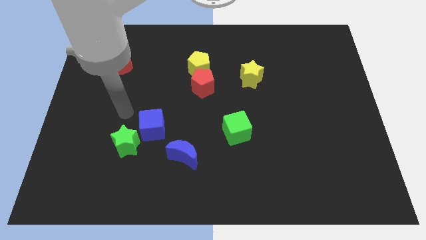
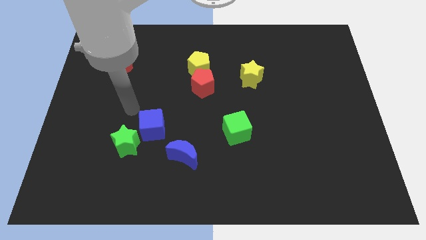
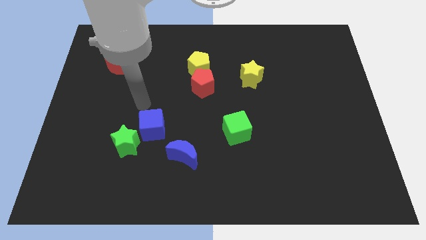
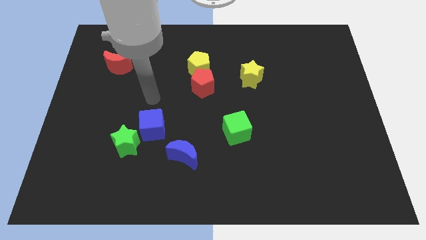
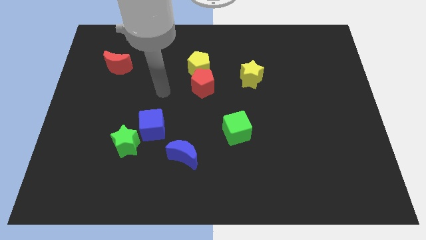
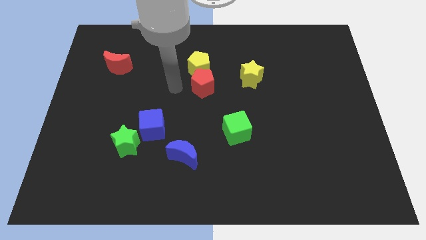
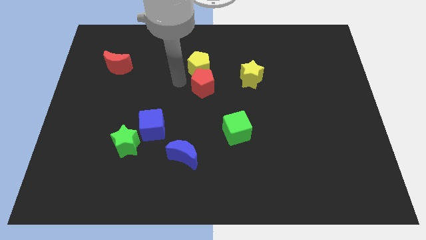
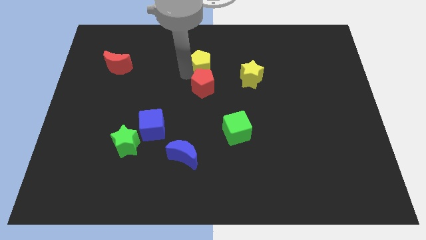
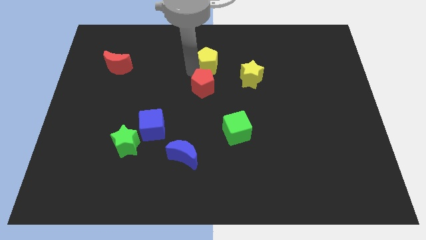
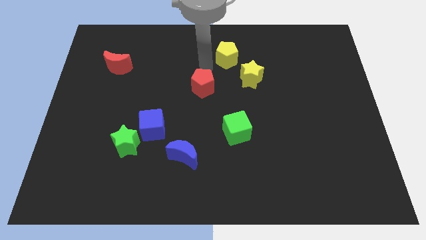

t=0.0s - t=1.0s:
move the red pentagon away from the yellow pentagon

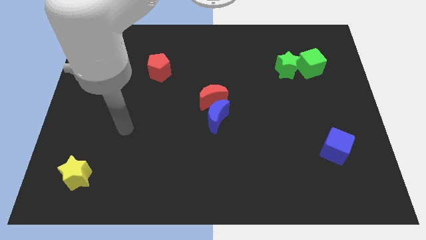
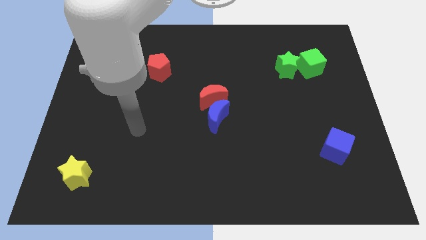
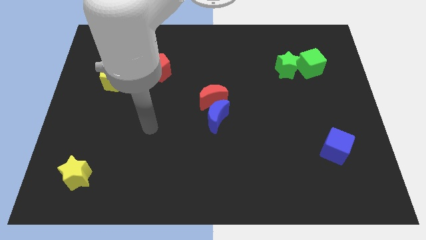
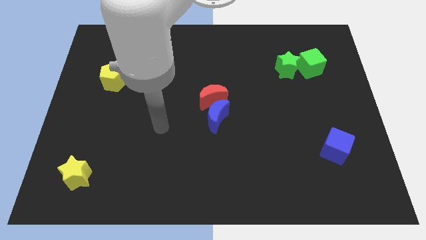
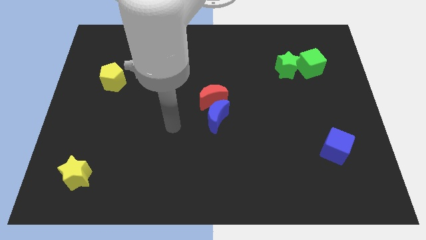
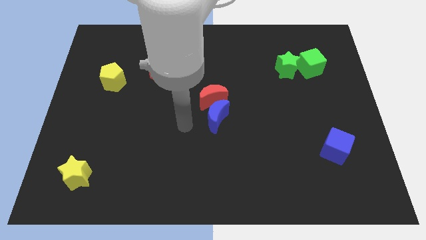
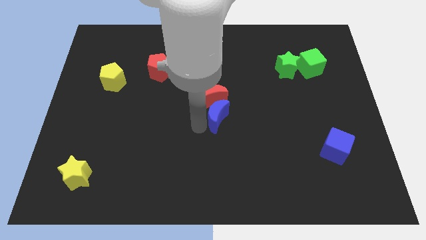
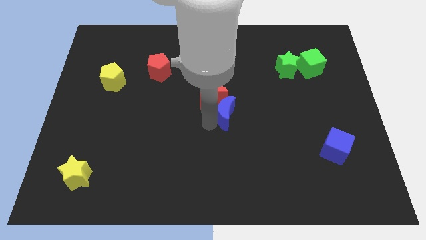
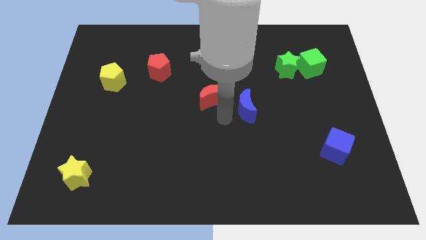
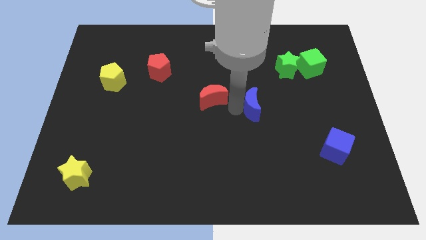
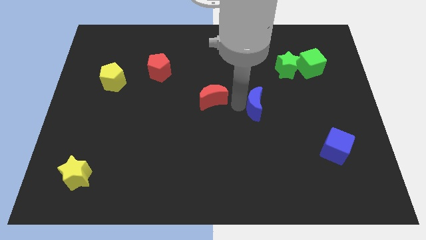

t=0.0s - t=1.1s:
move the red moon away from the blue moon

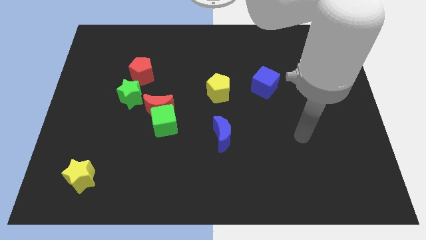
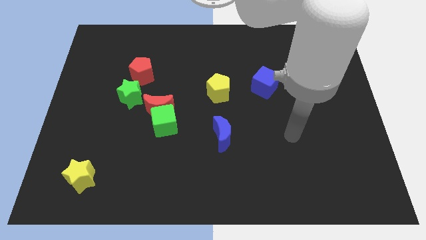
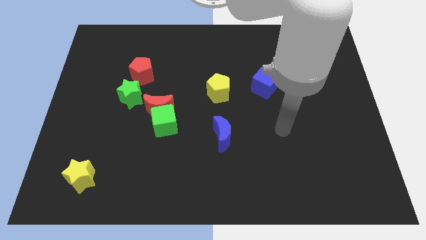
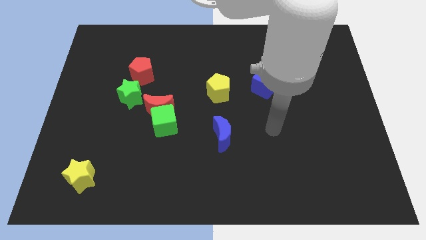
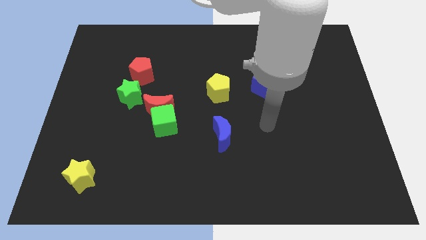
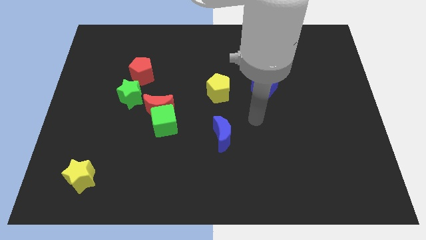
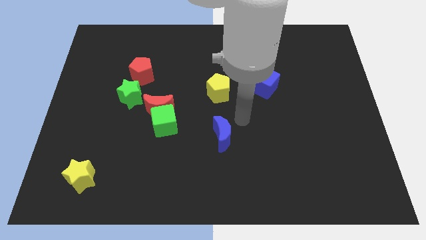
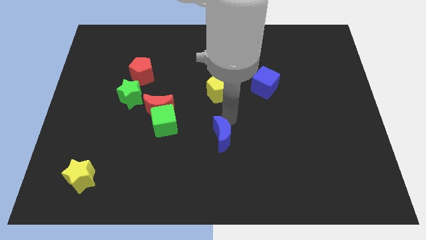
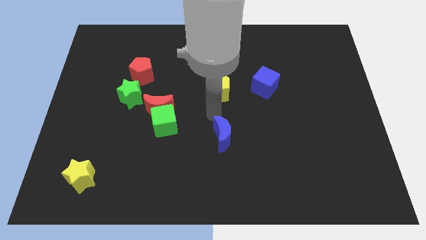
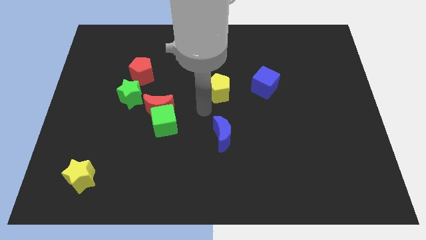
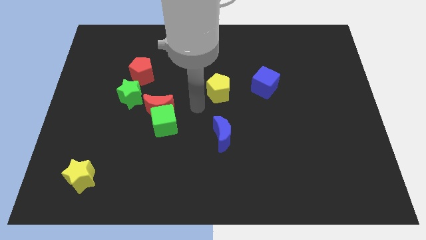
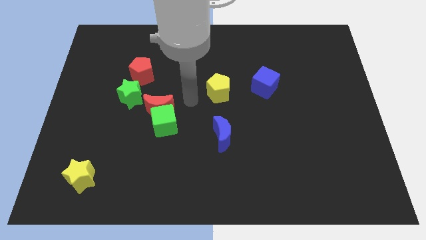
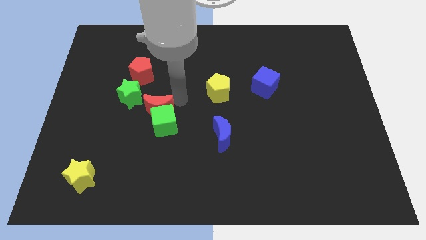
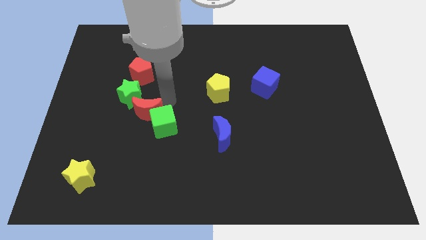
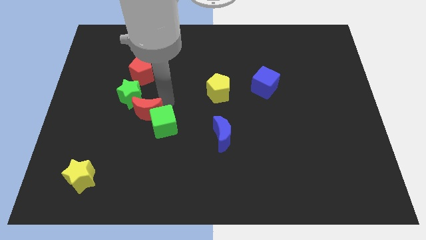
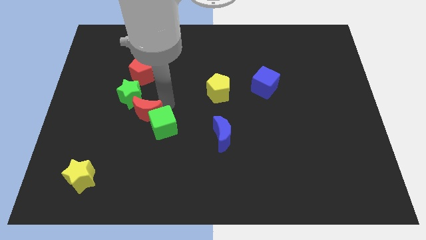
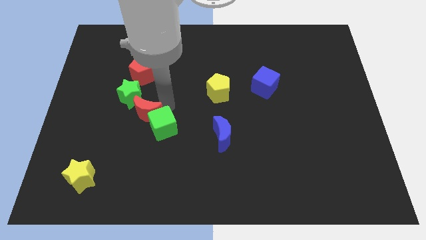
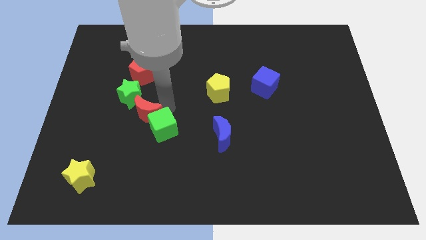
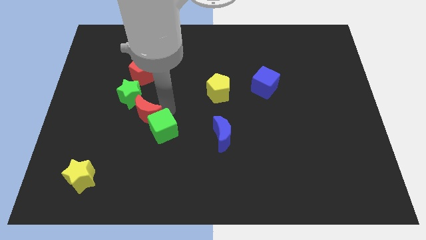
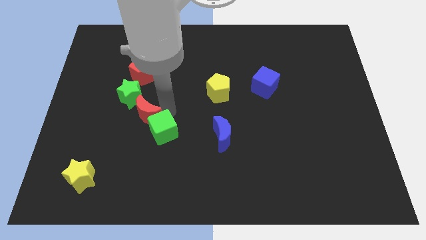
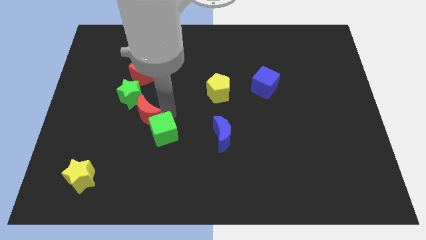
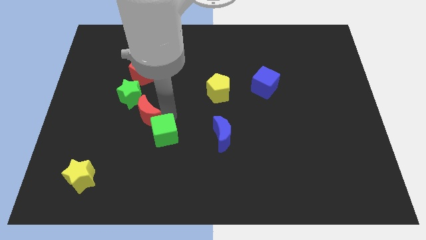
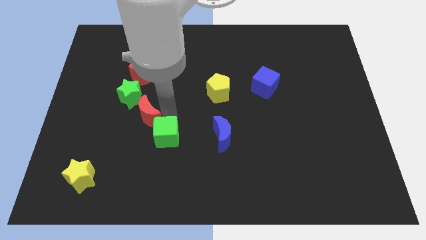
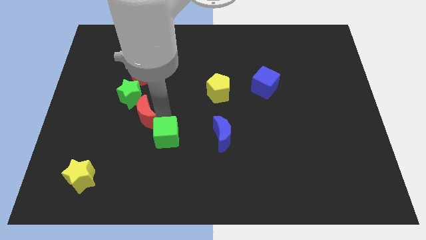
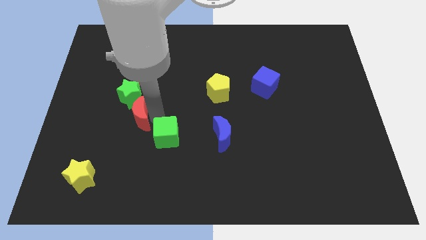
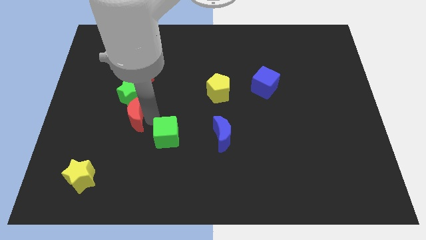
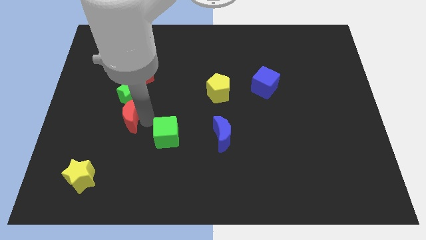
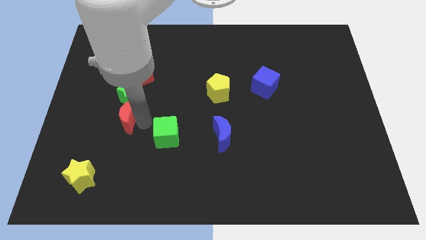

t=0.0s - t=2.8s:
separate the green cube from the red moon

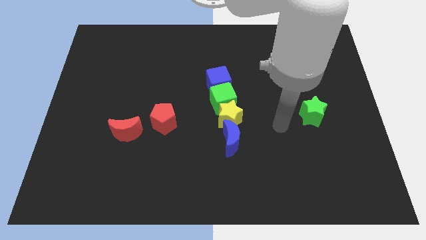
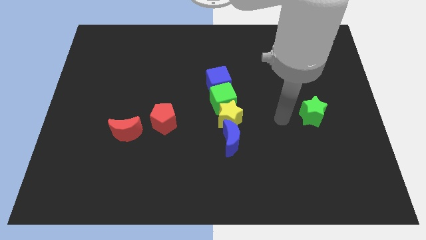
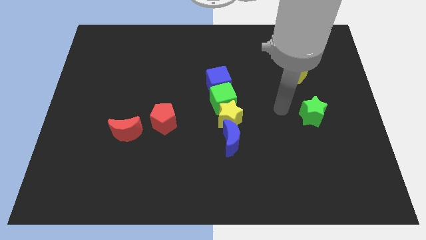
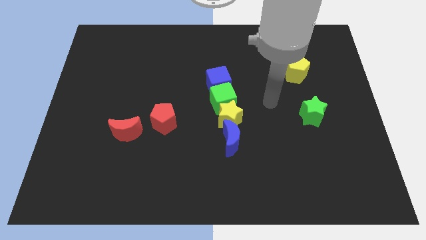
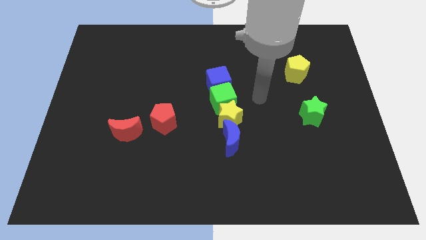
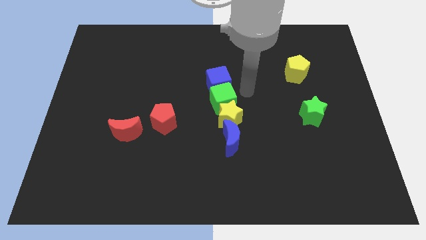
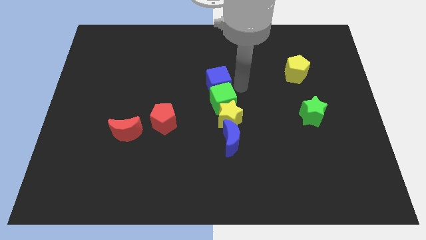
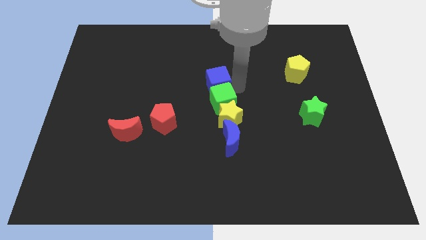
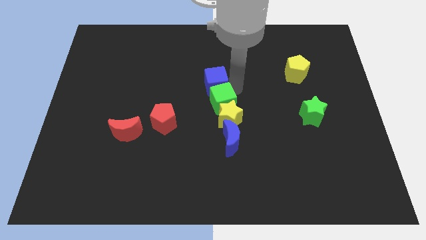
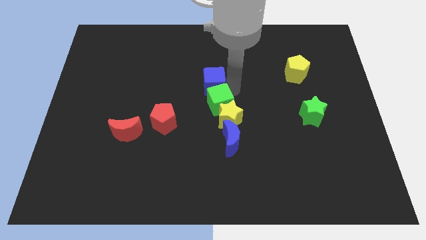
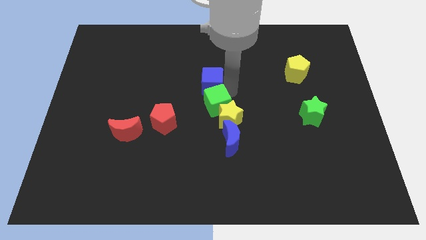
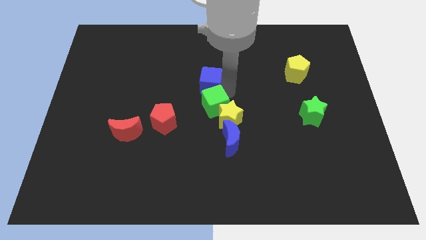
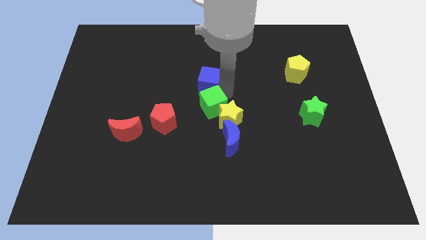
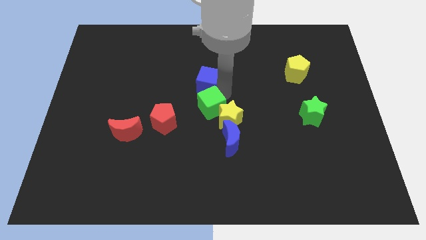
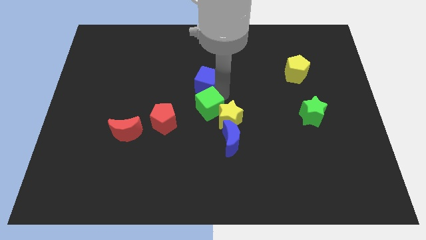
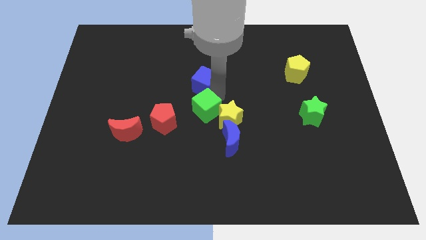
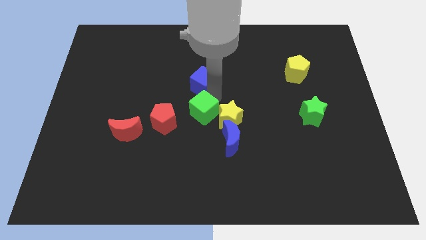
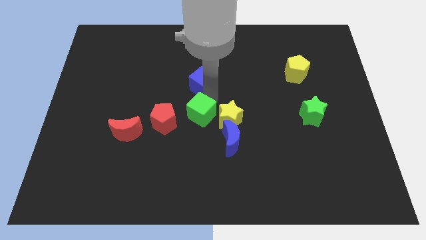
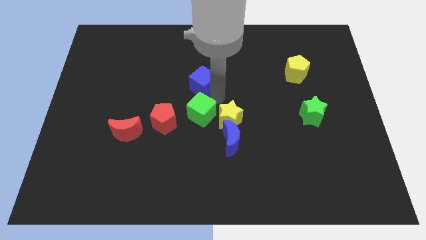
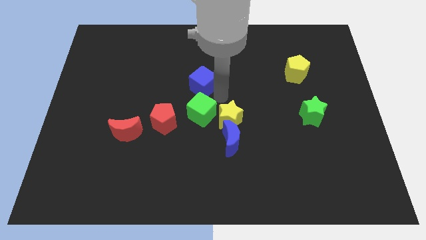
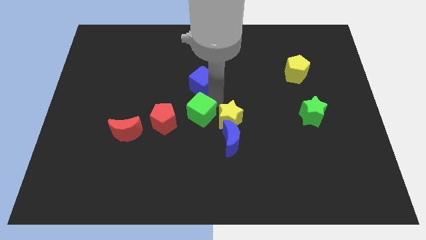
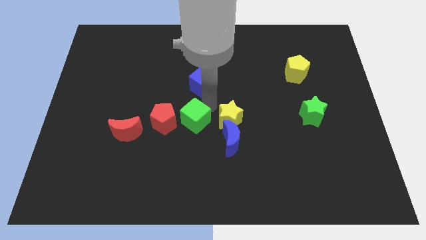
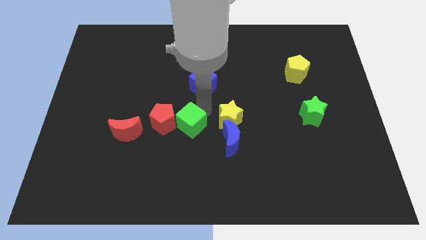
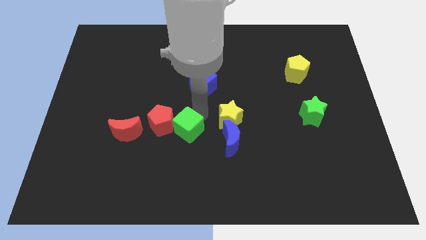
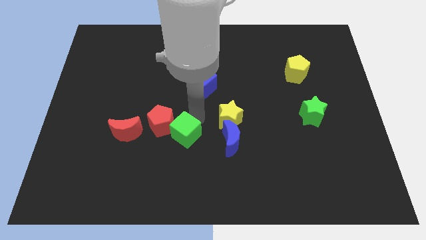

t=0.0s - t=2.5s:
pull the green cube apart from the yellow star and blue cube

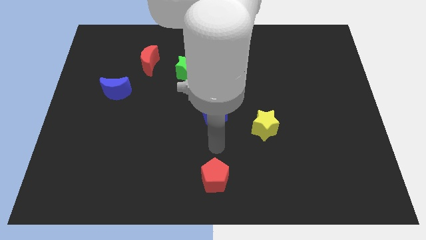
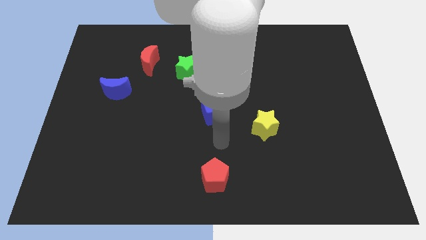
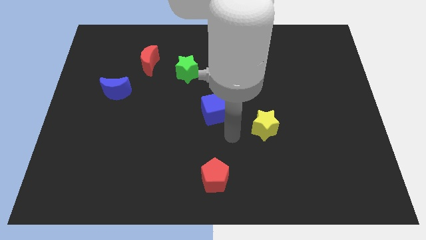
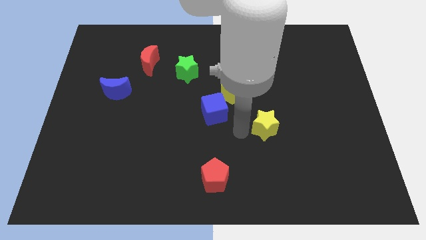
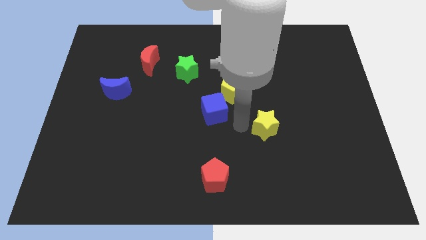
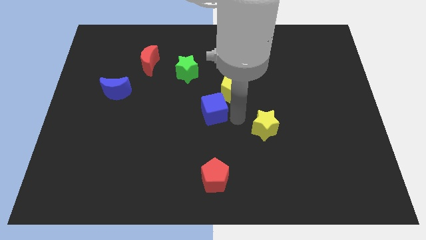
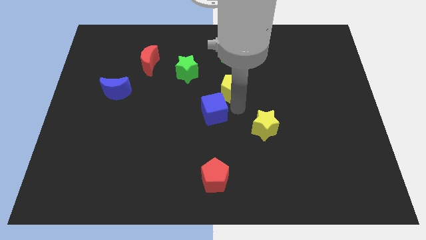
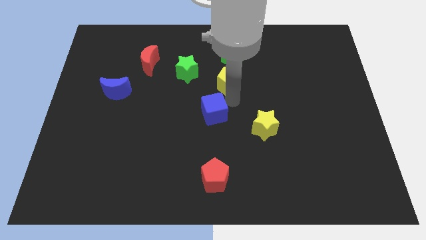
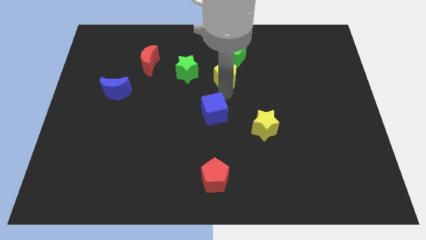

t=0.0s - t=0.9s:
separate the blue cube from the yellow pentagon

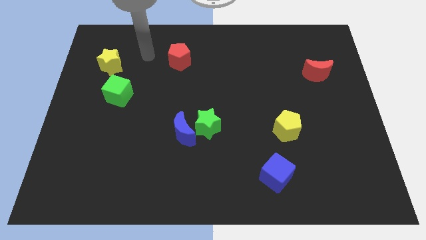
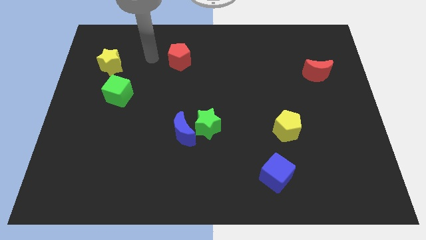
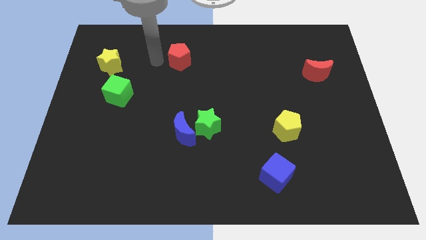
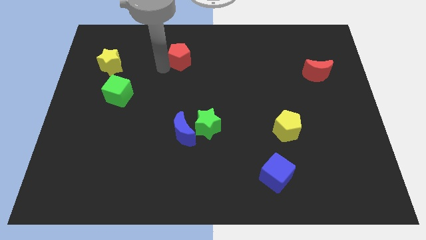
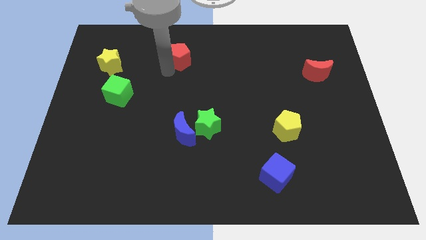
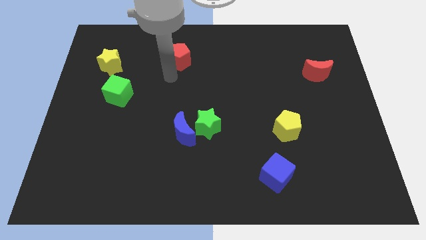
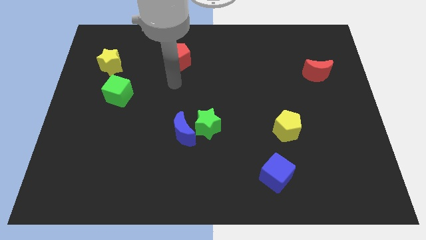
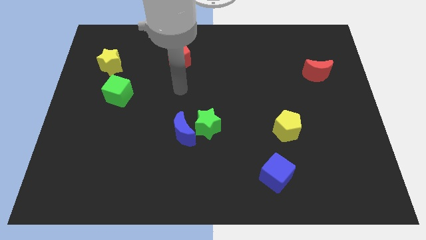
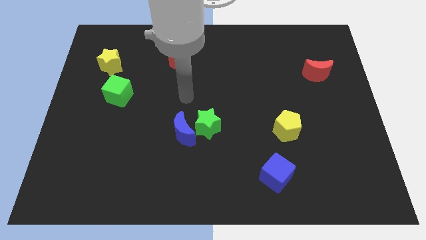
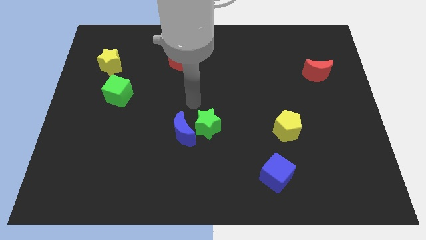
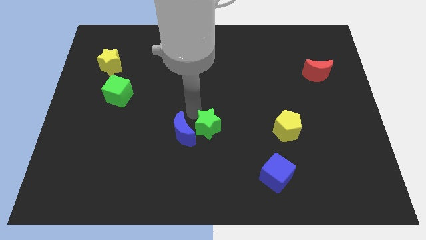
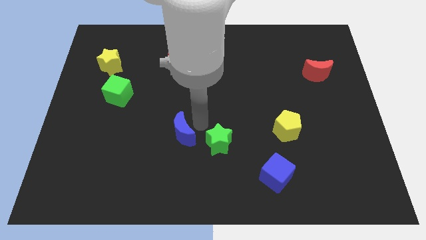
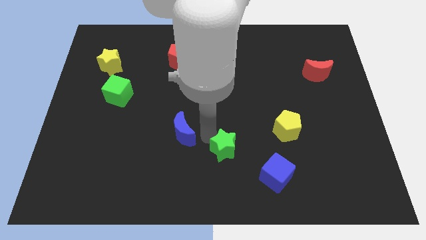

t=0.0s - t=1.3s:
separate the blue moon from the green star
